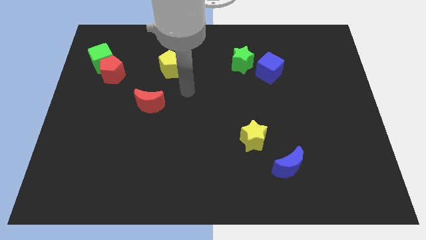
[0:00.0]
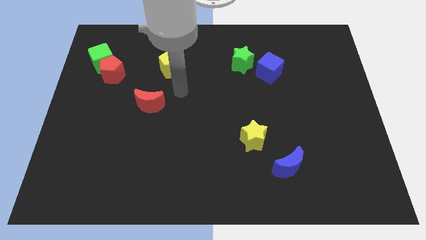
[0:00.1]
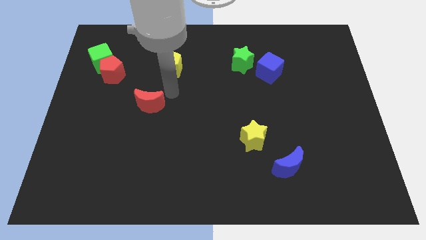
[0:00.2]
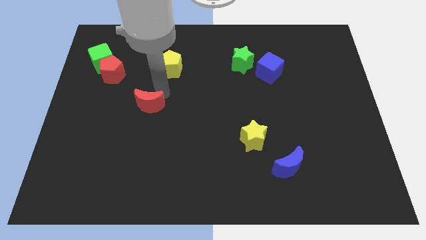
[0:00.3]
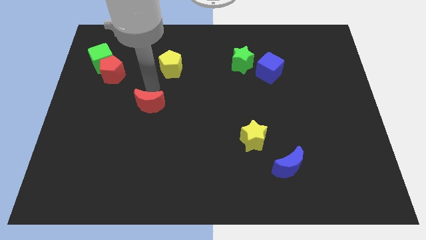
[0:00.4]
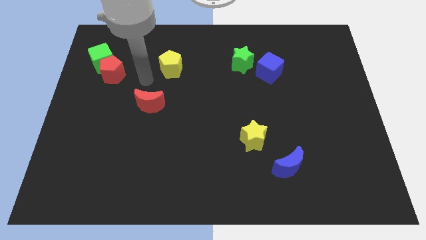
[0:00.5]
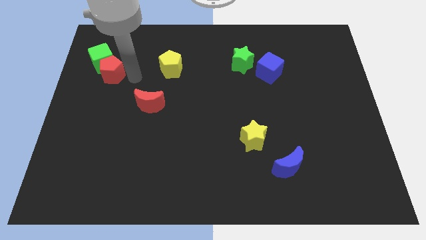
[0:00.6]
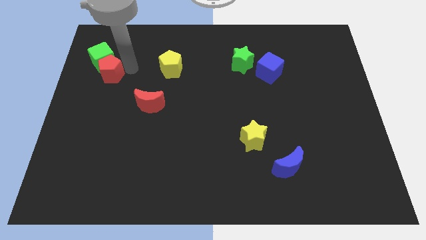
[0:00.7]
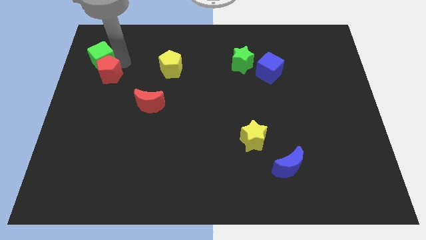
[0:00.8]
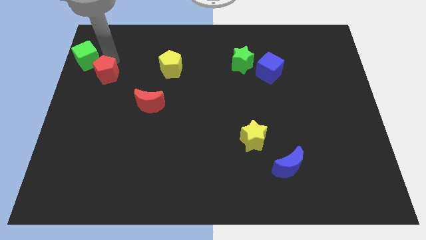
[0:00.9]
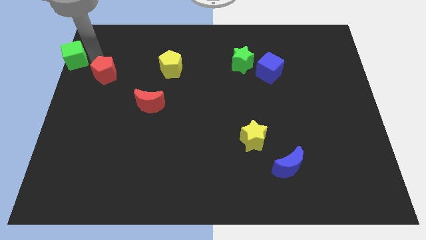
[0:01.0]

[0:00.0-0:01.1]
move the red pentagon away from the green cube

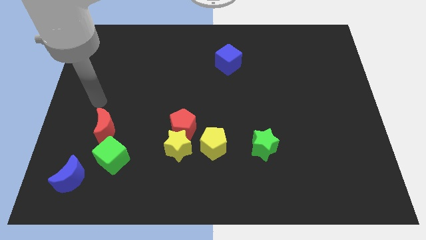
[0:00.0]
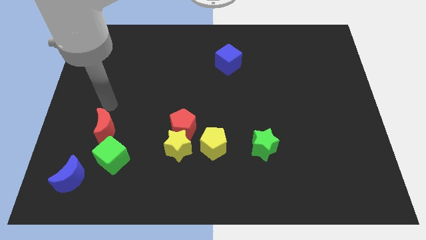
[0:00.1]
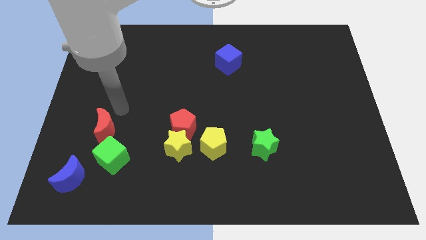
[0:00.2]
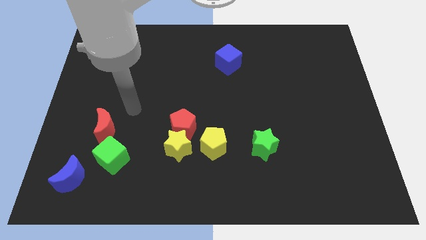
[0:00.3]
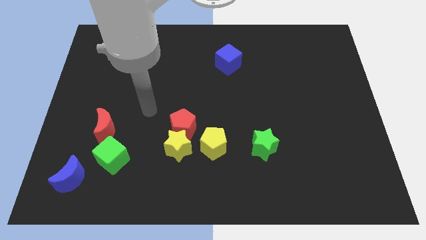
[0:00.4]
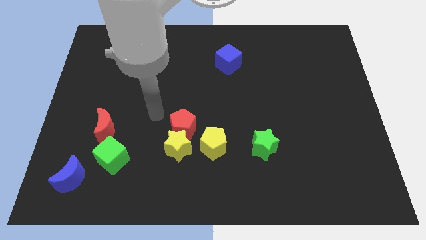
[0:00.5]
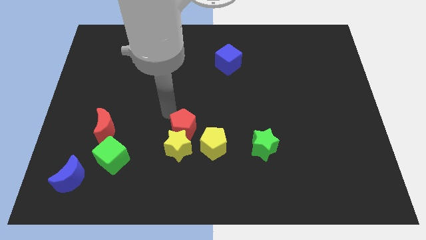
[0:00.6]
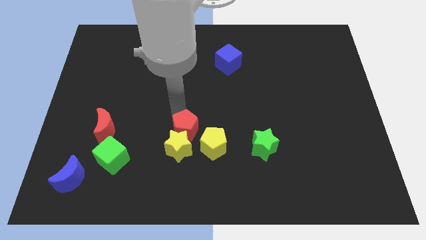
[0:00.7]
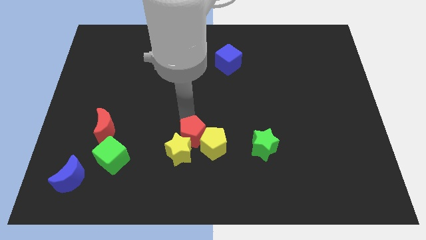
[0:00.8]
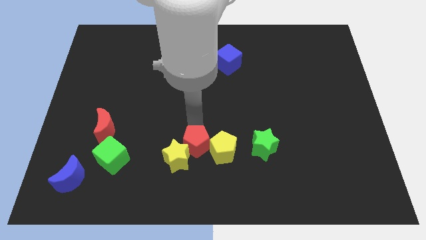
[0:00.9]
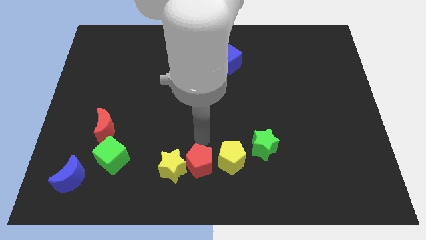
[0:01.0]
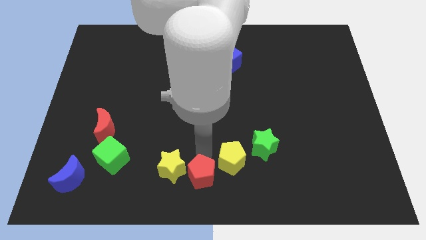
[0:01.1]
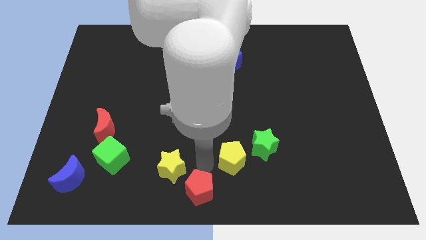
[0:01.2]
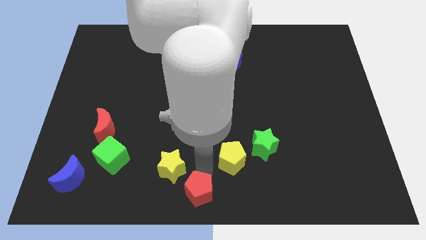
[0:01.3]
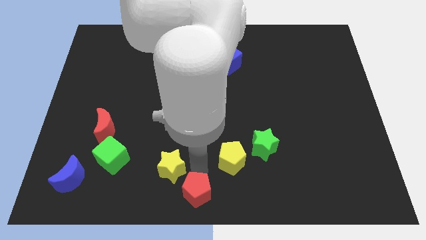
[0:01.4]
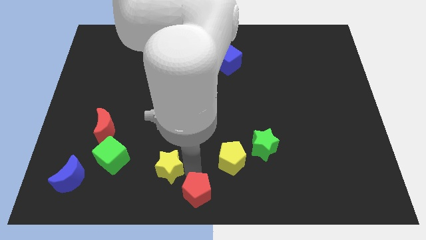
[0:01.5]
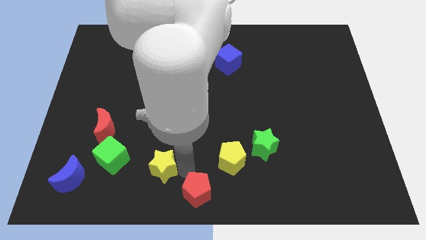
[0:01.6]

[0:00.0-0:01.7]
separate the yellow star from the red pentagon and yellow pentagon

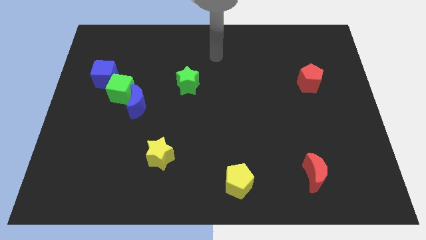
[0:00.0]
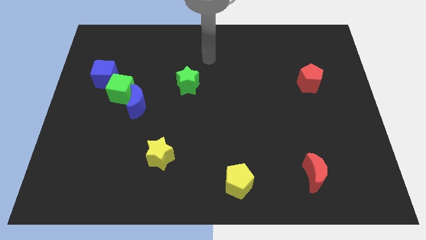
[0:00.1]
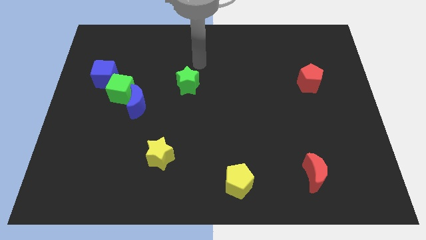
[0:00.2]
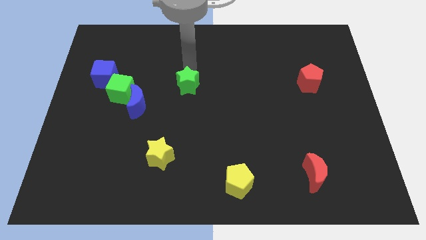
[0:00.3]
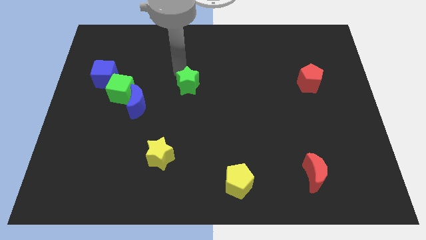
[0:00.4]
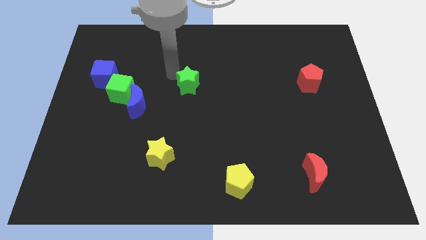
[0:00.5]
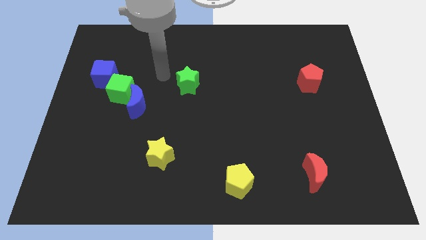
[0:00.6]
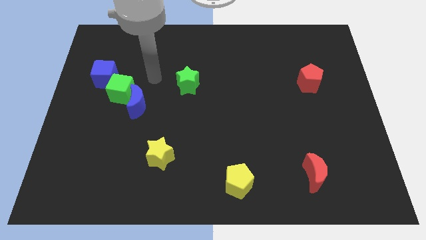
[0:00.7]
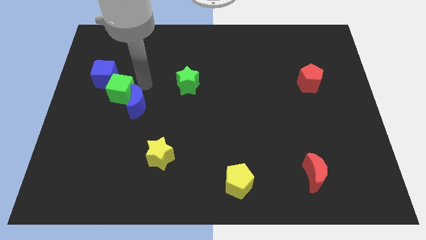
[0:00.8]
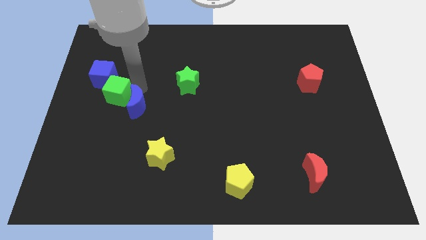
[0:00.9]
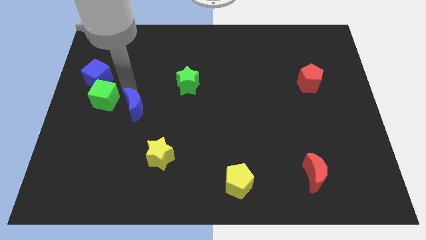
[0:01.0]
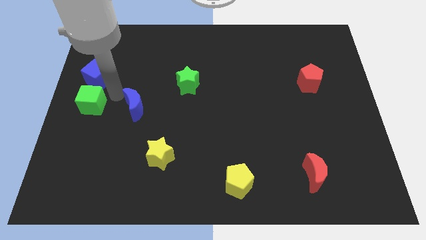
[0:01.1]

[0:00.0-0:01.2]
separate the blue moon from the green cube

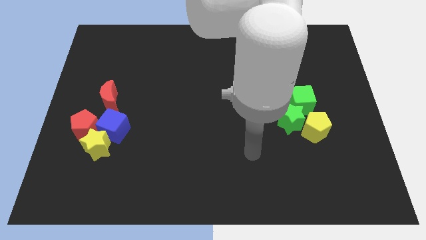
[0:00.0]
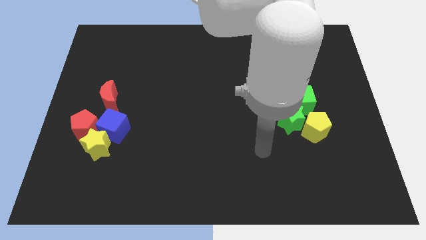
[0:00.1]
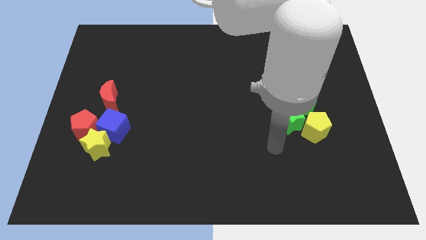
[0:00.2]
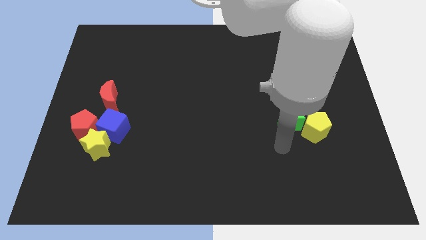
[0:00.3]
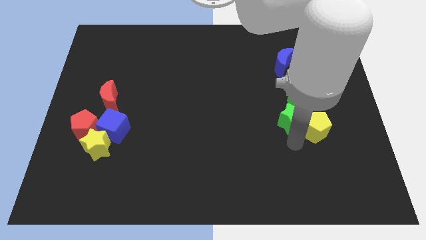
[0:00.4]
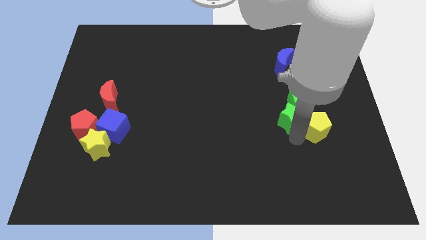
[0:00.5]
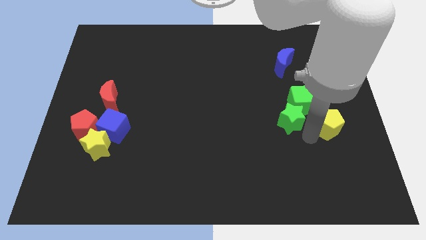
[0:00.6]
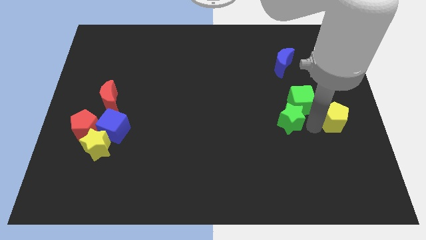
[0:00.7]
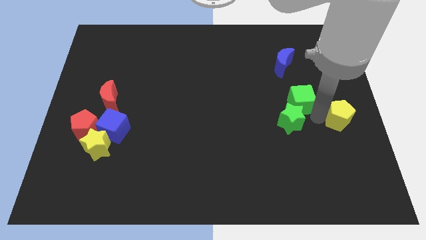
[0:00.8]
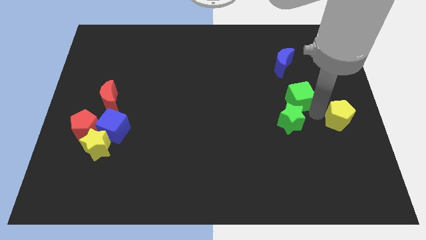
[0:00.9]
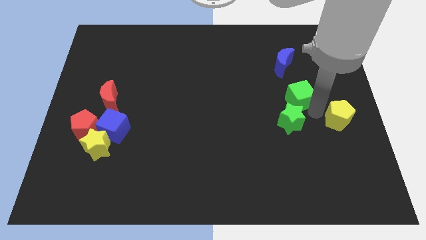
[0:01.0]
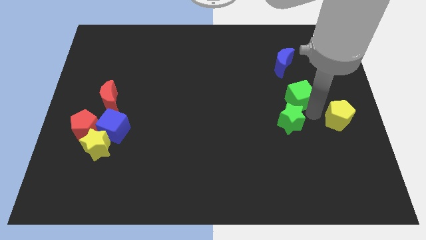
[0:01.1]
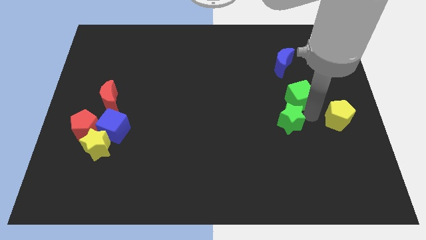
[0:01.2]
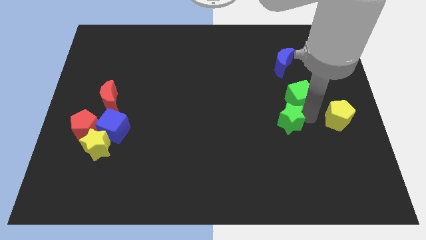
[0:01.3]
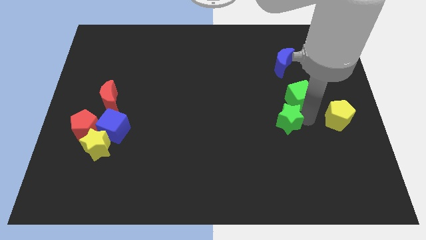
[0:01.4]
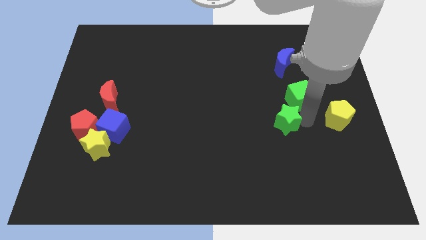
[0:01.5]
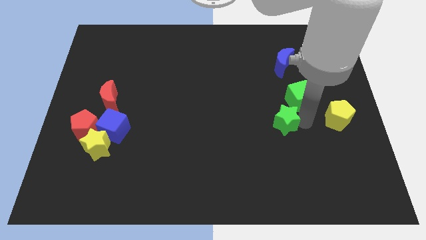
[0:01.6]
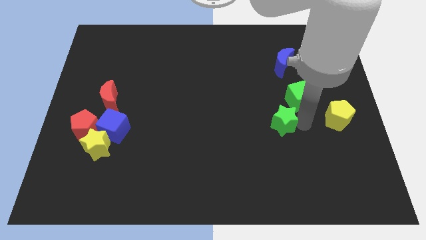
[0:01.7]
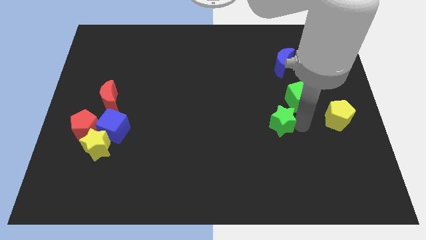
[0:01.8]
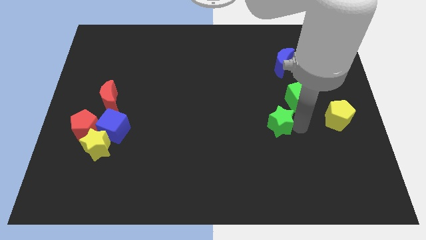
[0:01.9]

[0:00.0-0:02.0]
separate the green star from the yellow pentagon and green cube

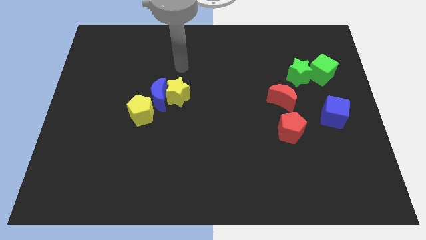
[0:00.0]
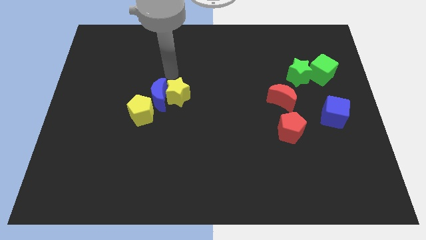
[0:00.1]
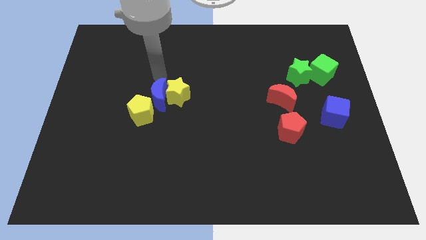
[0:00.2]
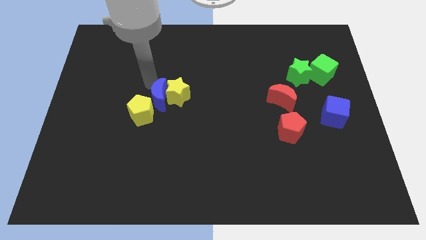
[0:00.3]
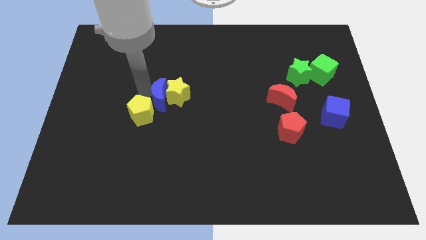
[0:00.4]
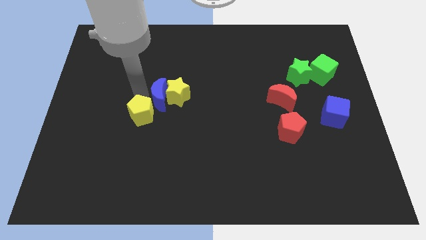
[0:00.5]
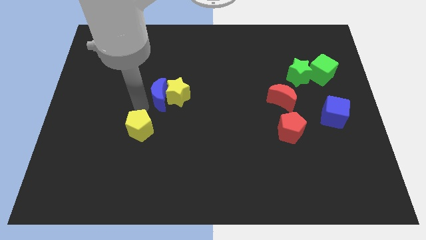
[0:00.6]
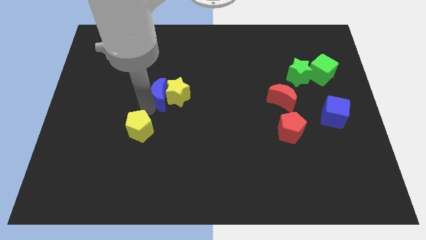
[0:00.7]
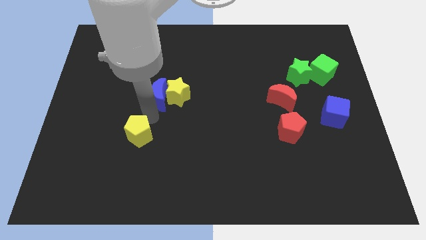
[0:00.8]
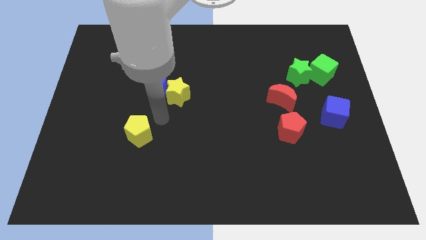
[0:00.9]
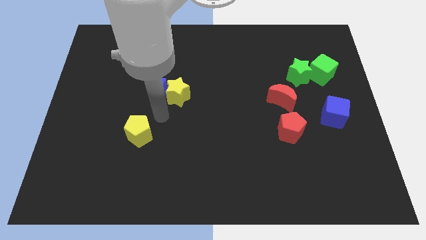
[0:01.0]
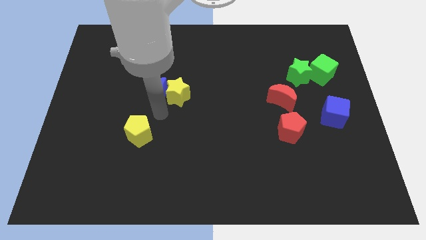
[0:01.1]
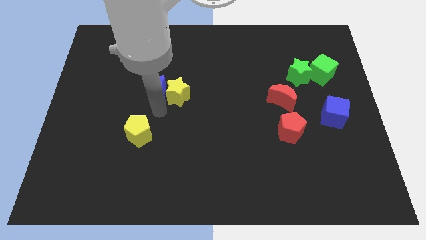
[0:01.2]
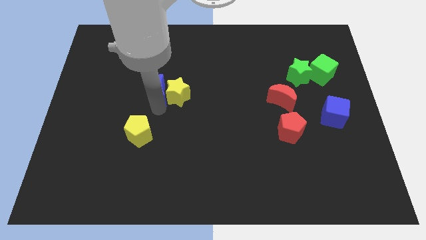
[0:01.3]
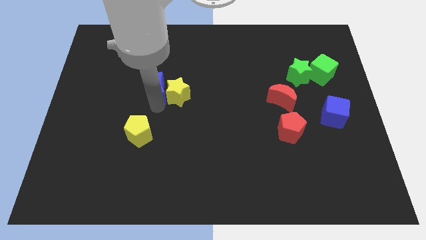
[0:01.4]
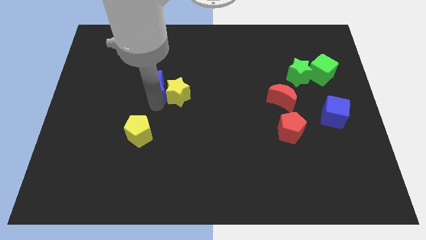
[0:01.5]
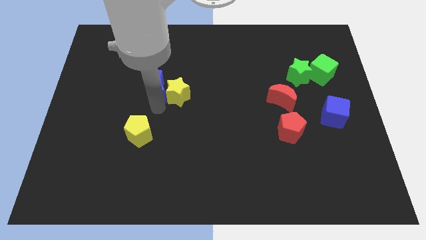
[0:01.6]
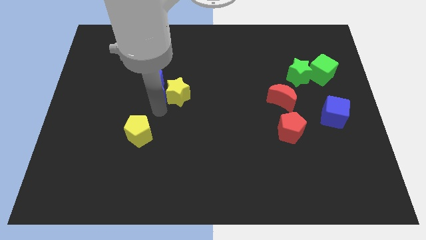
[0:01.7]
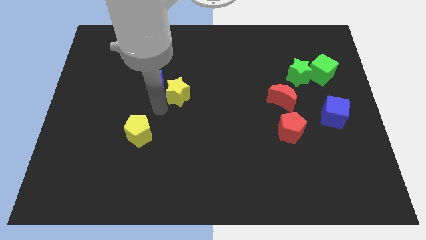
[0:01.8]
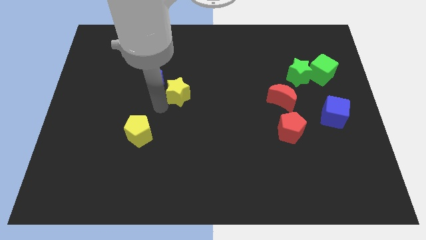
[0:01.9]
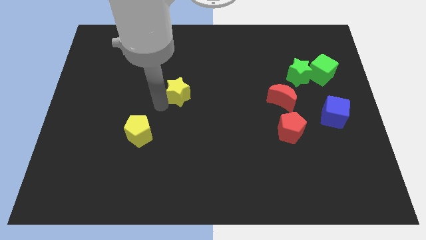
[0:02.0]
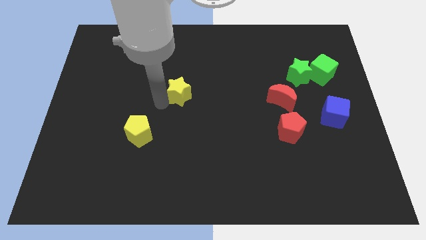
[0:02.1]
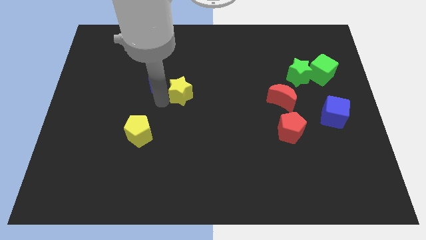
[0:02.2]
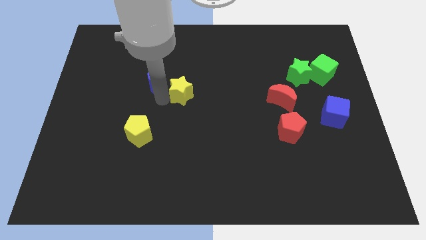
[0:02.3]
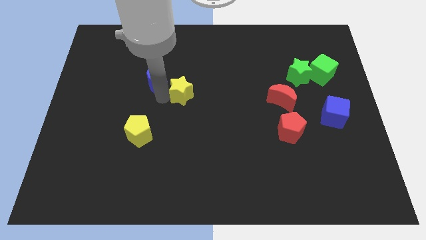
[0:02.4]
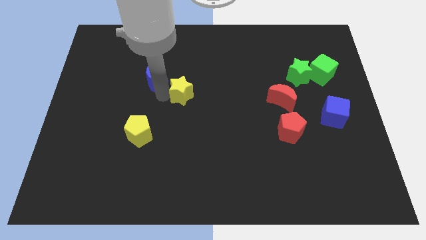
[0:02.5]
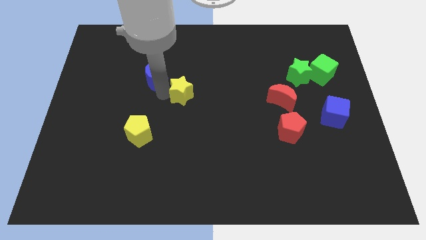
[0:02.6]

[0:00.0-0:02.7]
separate the blue moon from the yellow star and yellow pentagon

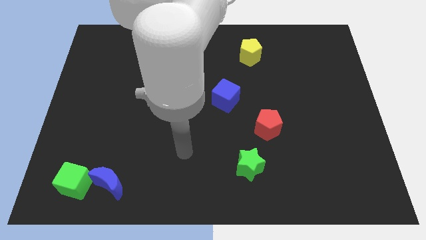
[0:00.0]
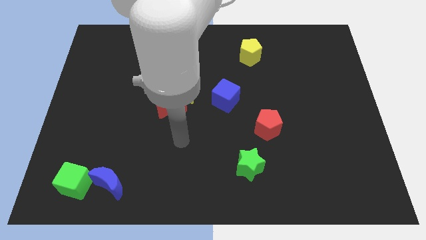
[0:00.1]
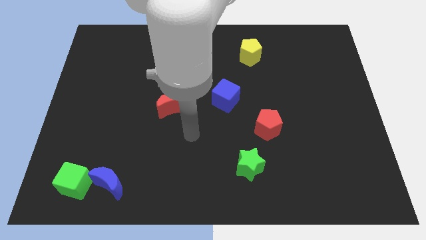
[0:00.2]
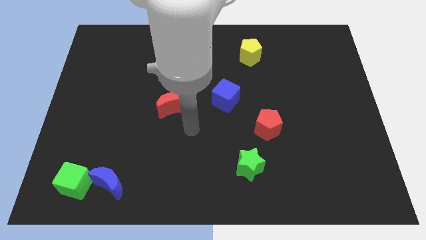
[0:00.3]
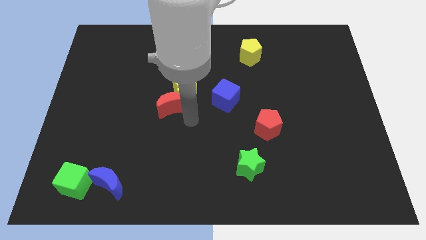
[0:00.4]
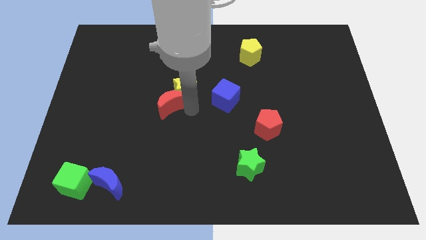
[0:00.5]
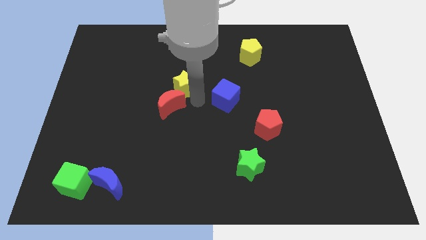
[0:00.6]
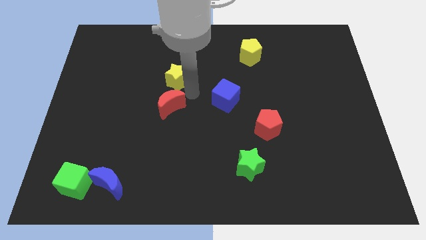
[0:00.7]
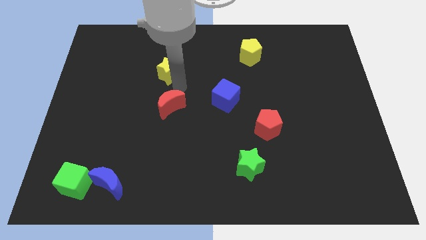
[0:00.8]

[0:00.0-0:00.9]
separate the red moon from the yellow star
